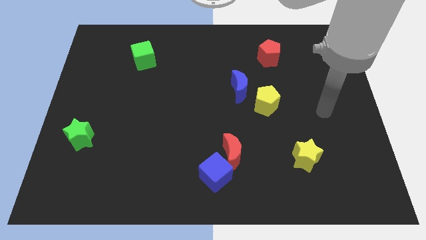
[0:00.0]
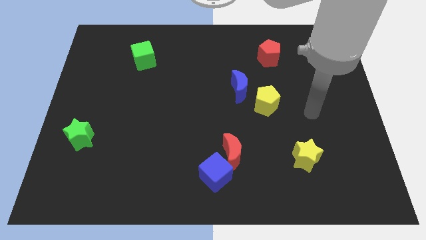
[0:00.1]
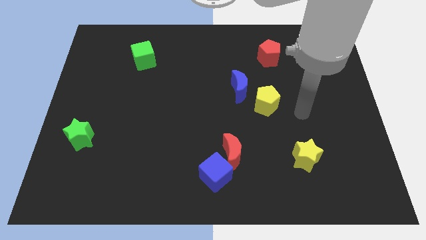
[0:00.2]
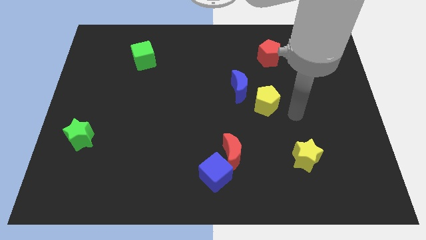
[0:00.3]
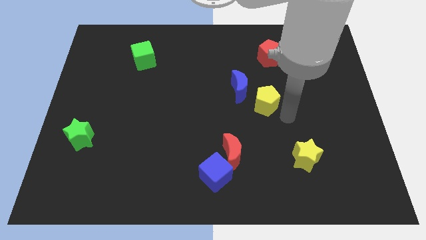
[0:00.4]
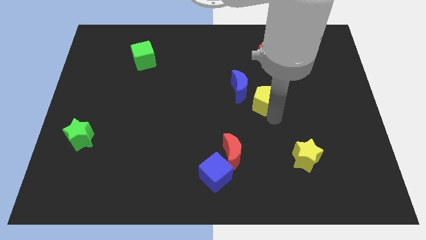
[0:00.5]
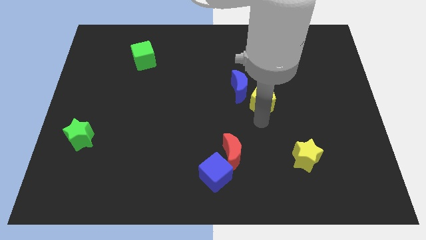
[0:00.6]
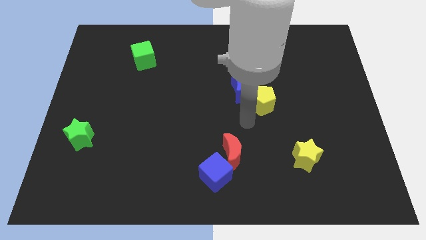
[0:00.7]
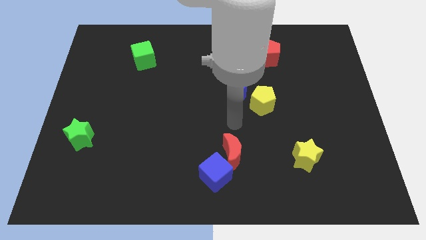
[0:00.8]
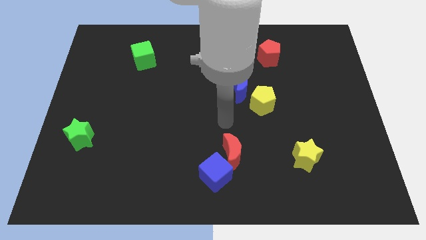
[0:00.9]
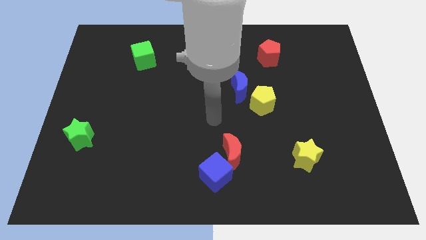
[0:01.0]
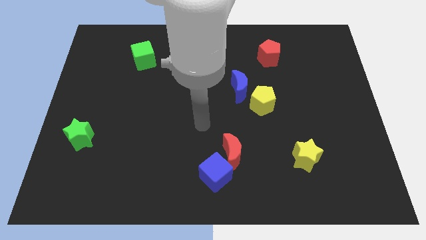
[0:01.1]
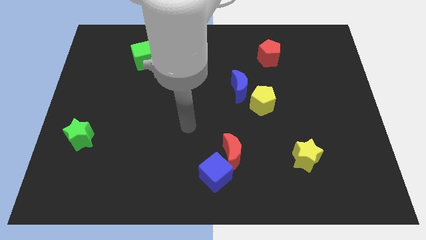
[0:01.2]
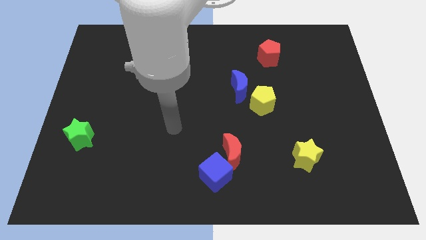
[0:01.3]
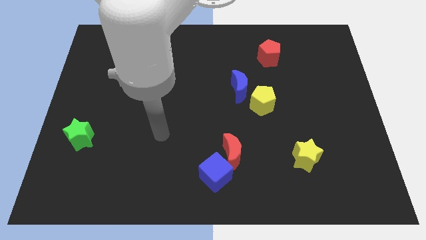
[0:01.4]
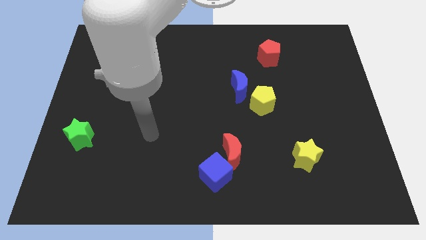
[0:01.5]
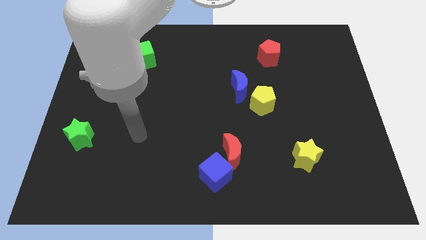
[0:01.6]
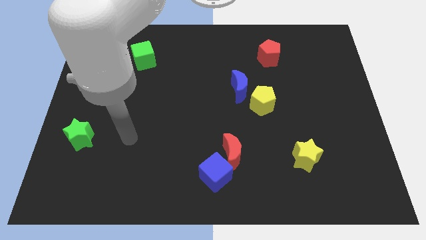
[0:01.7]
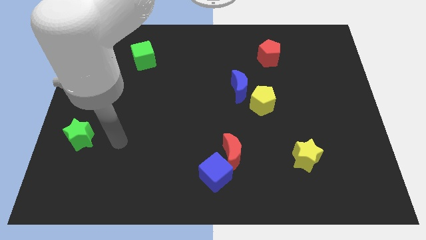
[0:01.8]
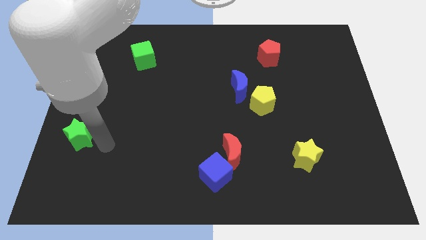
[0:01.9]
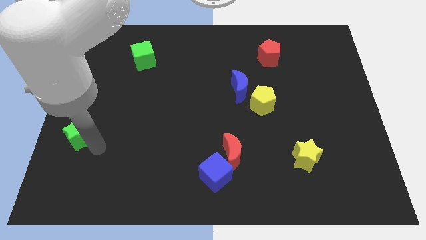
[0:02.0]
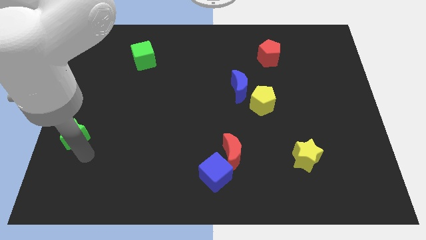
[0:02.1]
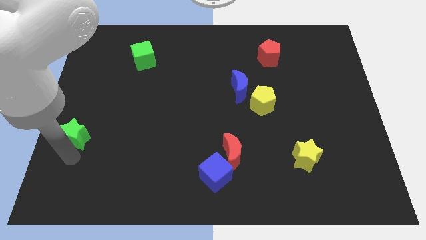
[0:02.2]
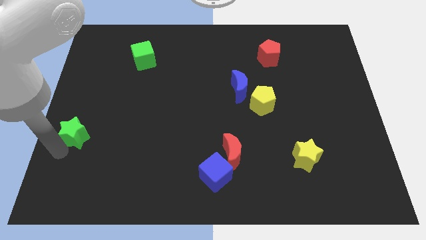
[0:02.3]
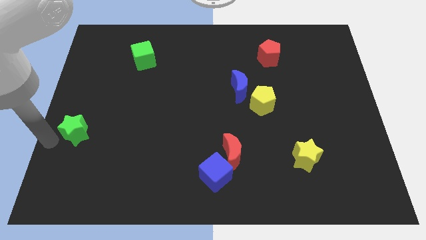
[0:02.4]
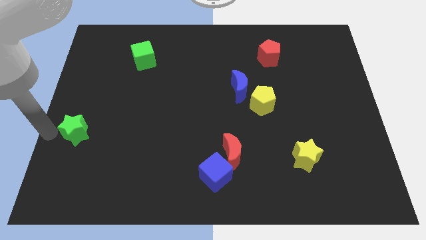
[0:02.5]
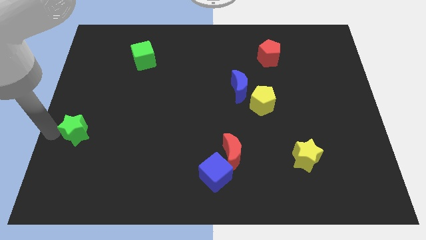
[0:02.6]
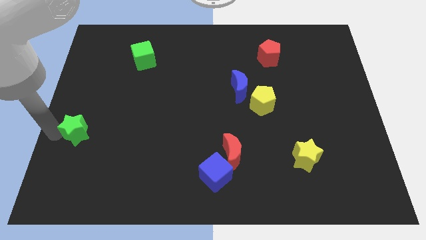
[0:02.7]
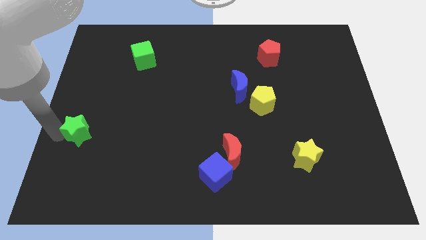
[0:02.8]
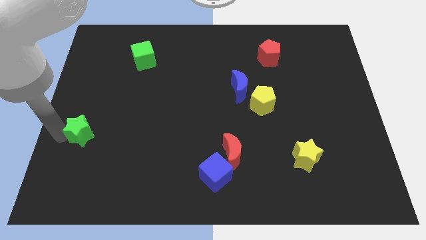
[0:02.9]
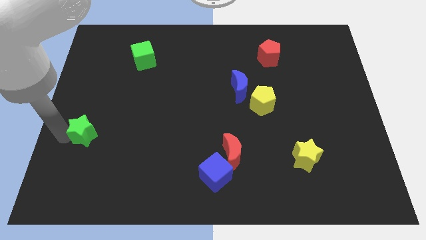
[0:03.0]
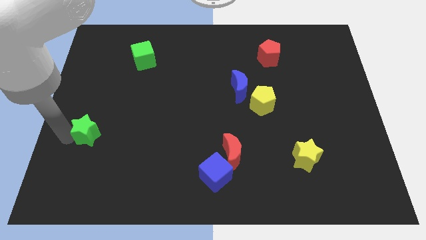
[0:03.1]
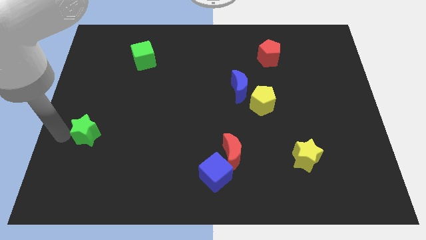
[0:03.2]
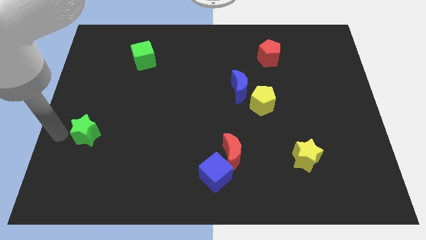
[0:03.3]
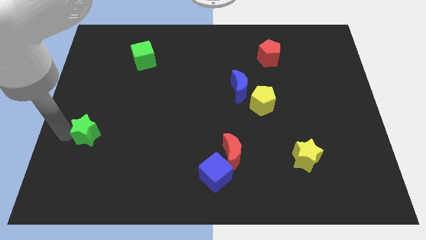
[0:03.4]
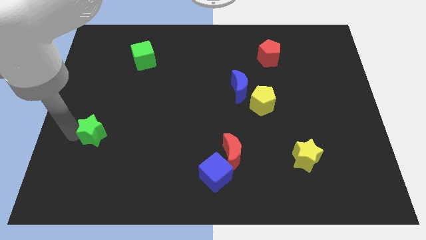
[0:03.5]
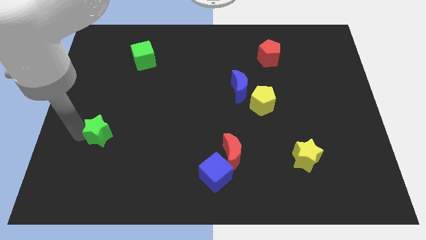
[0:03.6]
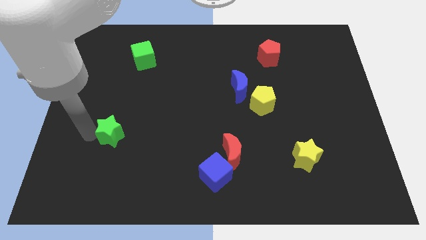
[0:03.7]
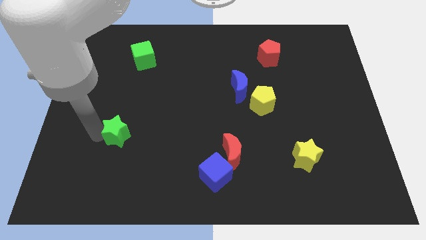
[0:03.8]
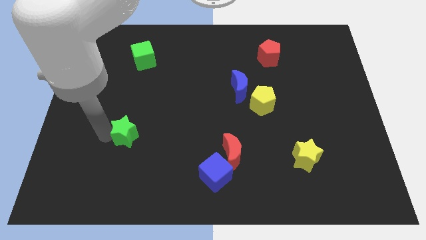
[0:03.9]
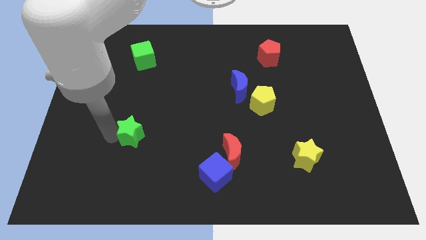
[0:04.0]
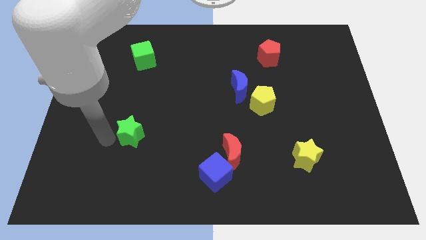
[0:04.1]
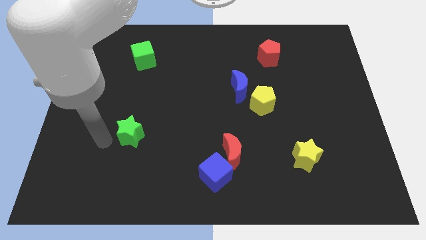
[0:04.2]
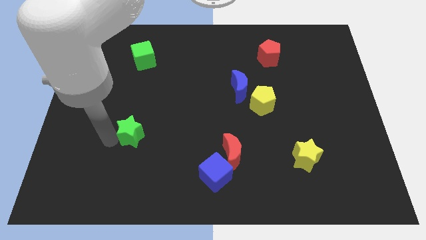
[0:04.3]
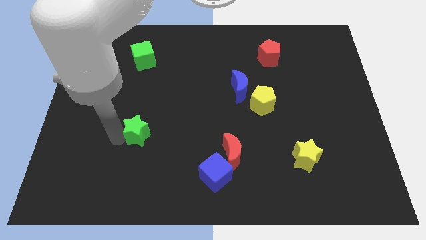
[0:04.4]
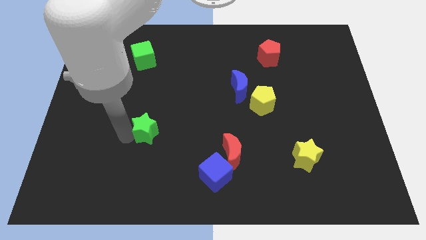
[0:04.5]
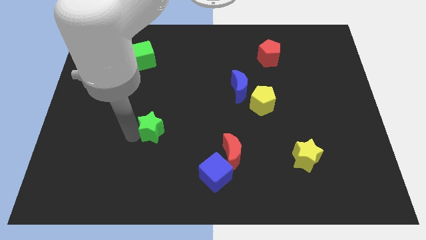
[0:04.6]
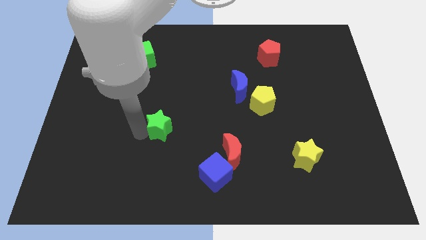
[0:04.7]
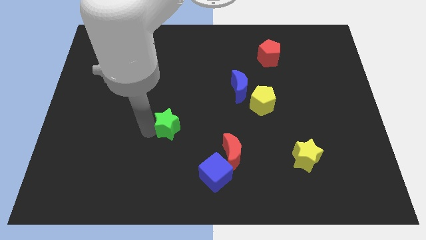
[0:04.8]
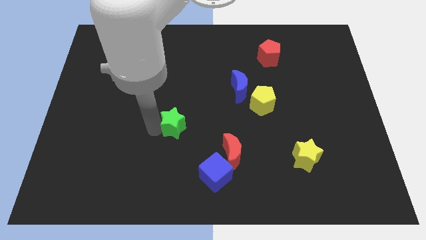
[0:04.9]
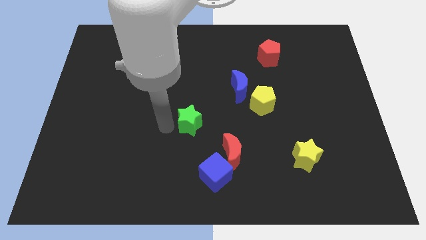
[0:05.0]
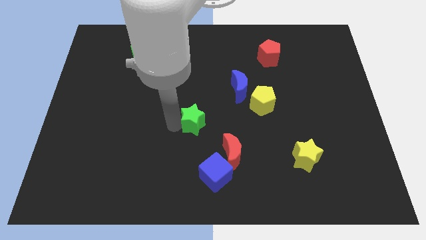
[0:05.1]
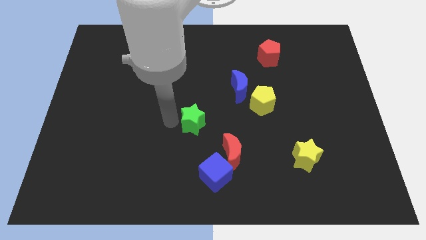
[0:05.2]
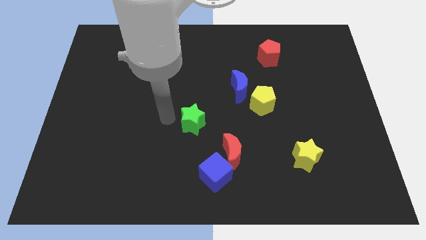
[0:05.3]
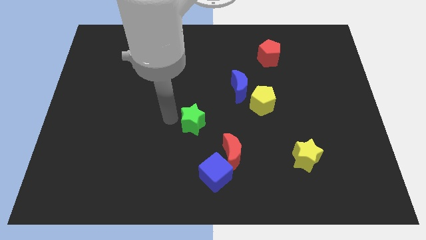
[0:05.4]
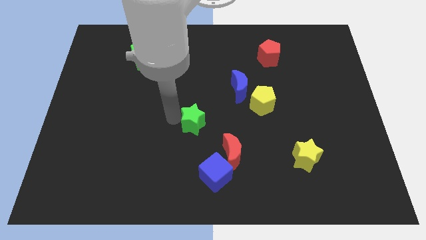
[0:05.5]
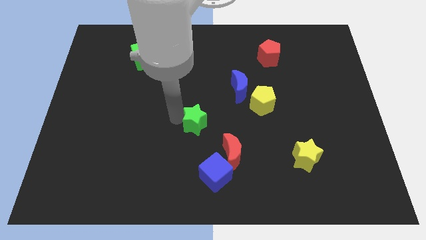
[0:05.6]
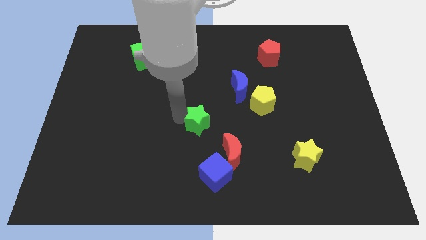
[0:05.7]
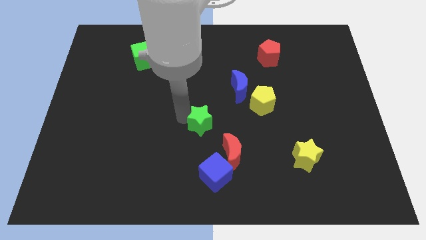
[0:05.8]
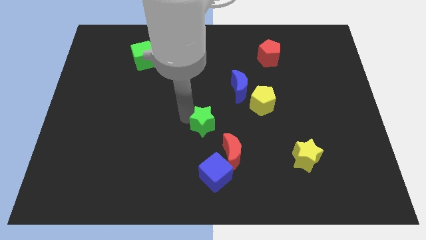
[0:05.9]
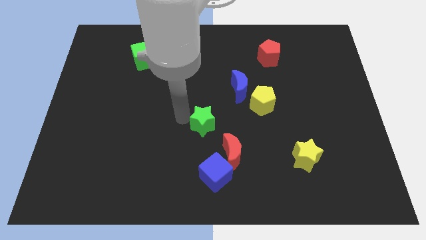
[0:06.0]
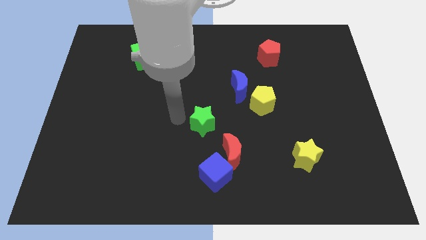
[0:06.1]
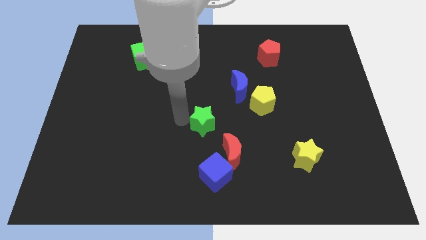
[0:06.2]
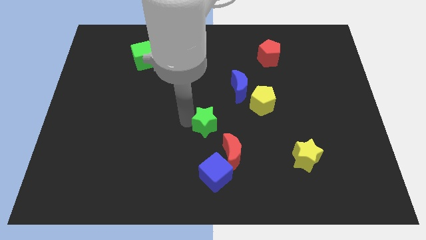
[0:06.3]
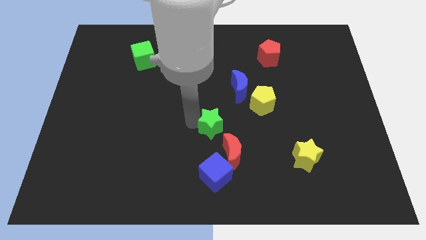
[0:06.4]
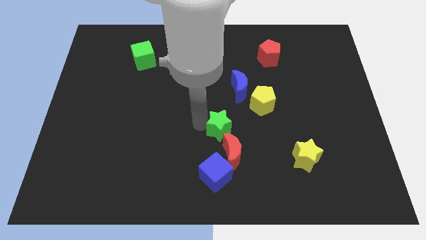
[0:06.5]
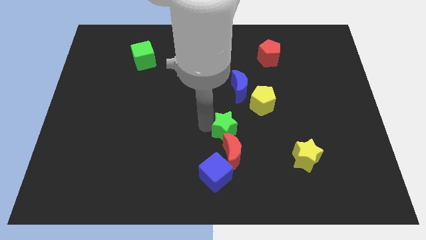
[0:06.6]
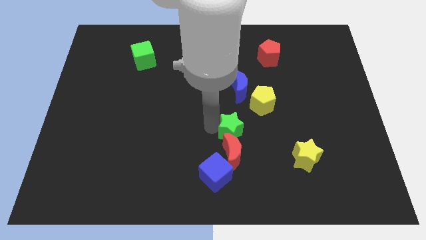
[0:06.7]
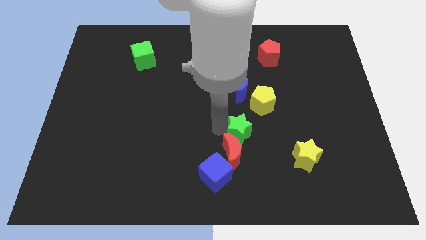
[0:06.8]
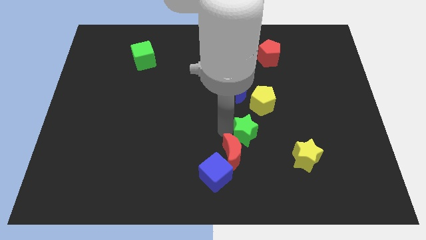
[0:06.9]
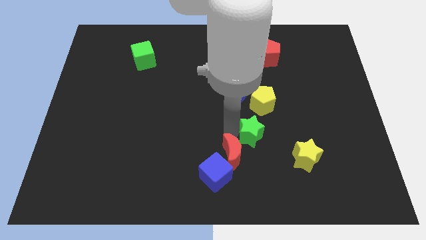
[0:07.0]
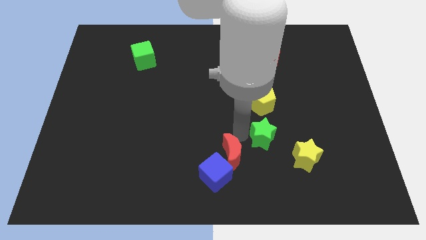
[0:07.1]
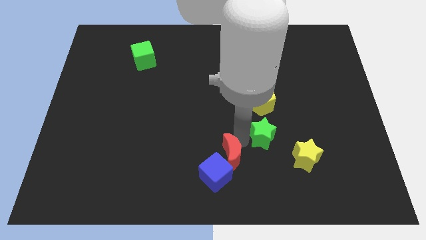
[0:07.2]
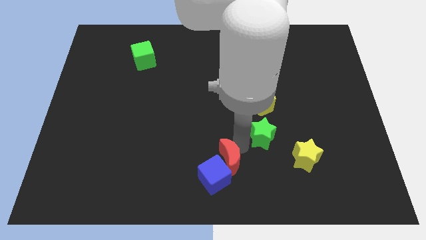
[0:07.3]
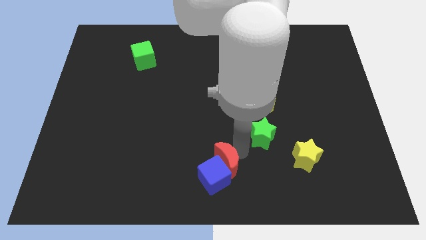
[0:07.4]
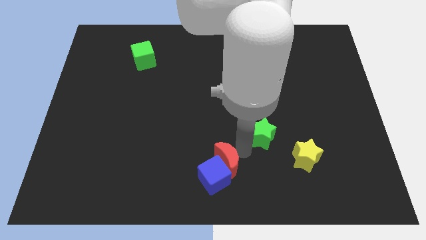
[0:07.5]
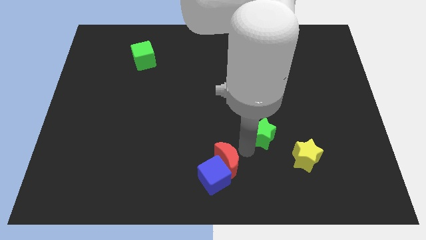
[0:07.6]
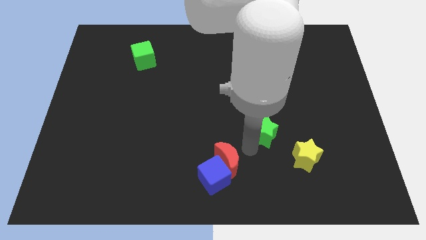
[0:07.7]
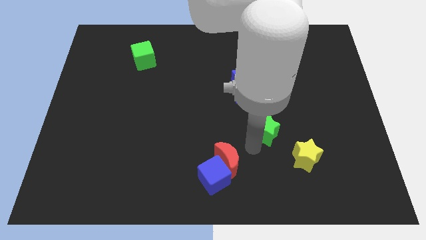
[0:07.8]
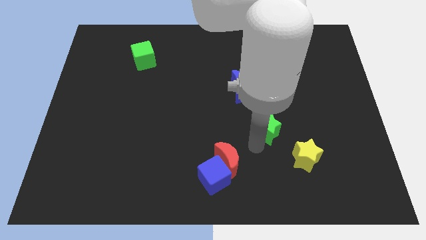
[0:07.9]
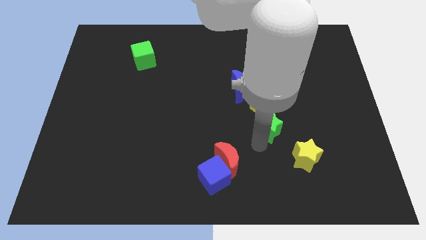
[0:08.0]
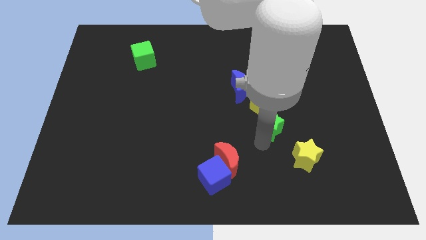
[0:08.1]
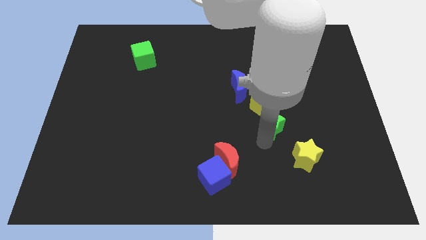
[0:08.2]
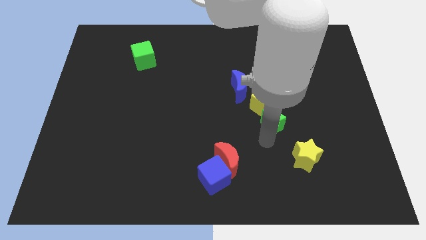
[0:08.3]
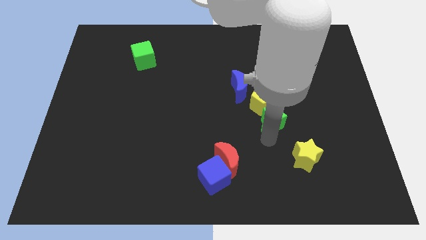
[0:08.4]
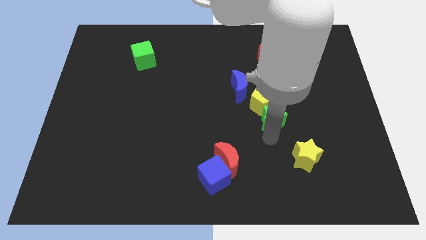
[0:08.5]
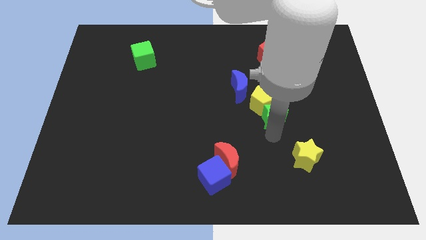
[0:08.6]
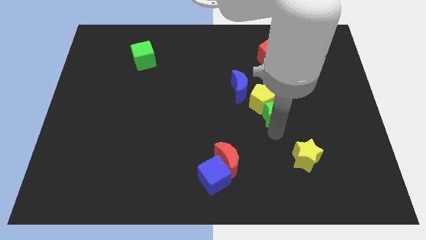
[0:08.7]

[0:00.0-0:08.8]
move the green star to the right of the yellow pentagon
